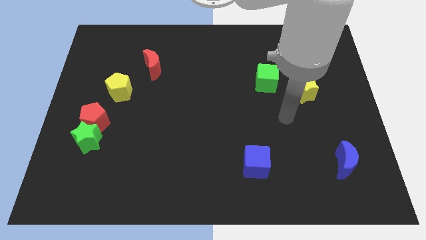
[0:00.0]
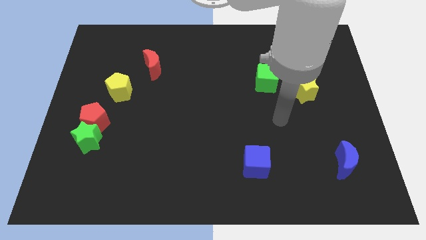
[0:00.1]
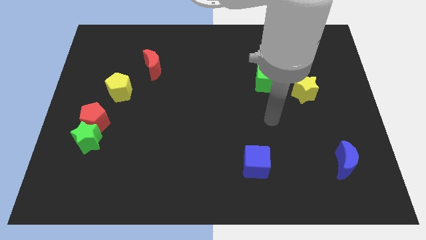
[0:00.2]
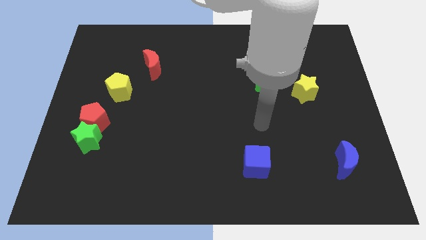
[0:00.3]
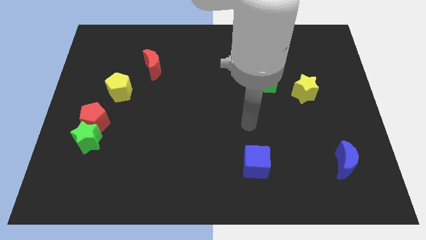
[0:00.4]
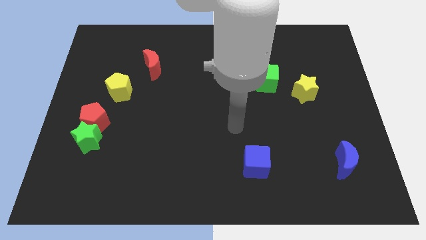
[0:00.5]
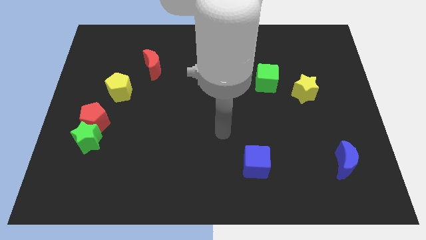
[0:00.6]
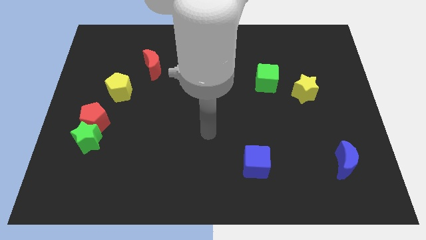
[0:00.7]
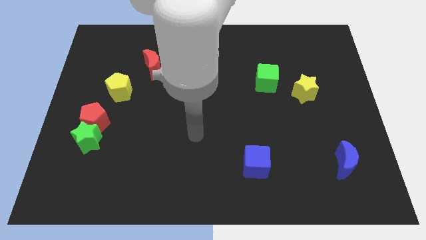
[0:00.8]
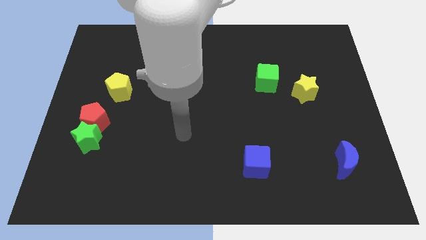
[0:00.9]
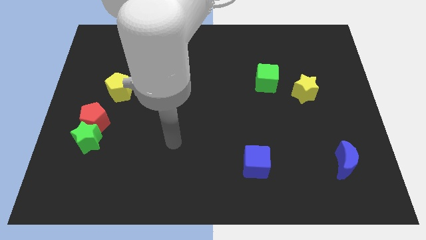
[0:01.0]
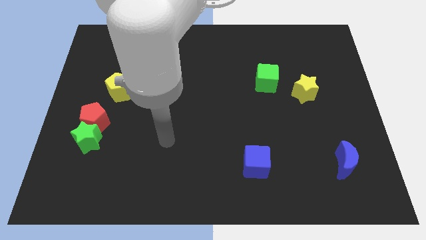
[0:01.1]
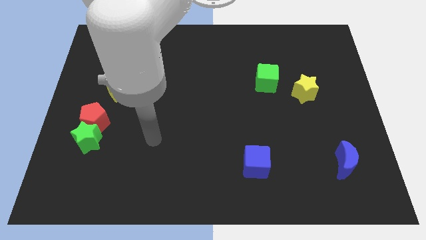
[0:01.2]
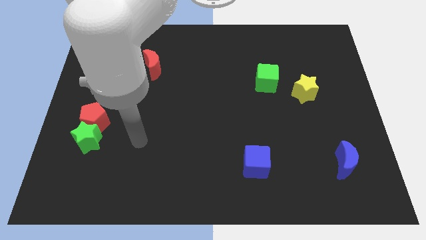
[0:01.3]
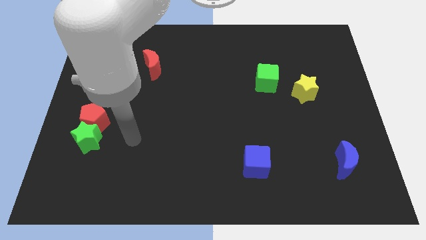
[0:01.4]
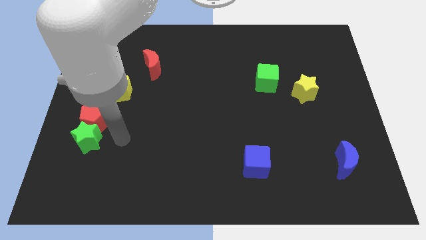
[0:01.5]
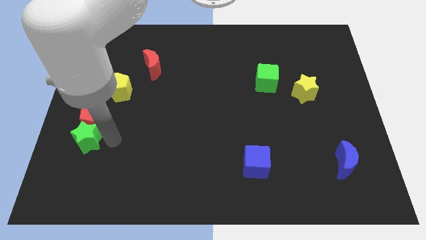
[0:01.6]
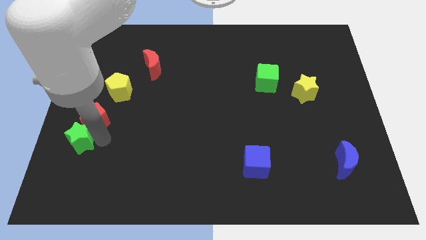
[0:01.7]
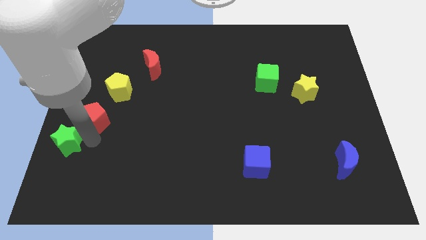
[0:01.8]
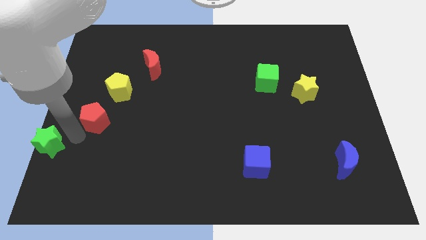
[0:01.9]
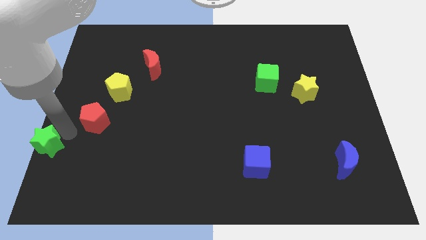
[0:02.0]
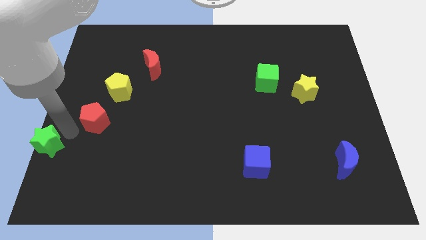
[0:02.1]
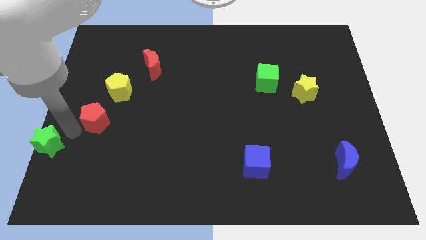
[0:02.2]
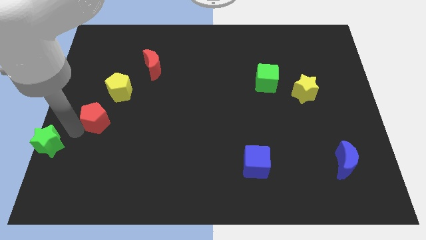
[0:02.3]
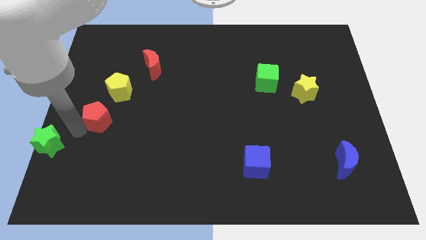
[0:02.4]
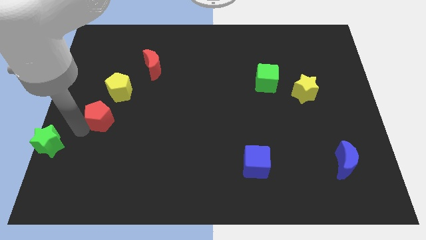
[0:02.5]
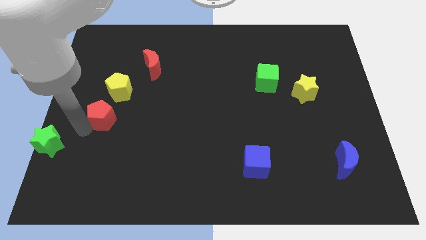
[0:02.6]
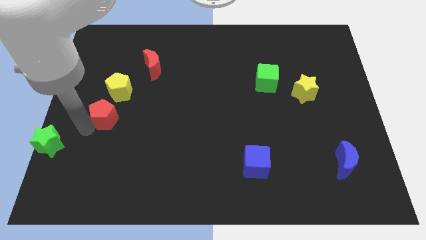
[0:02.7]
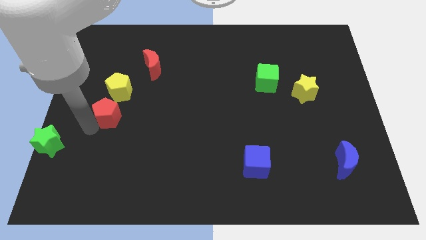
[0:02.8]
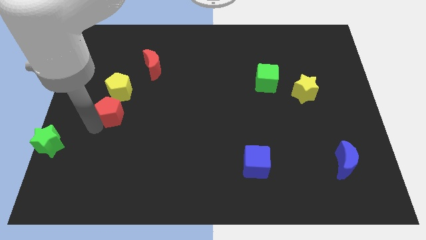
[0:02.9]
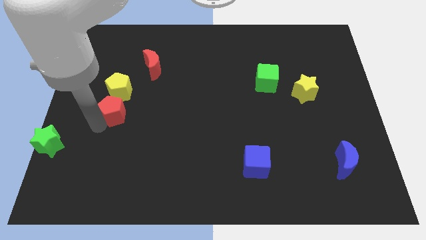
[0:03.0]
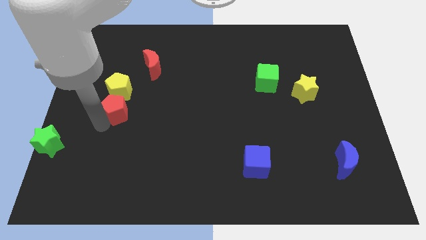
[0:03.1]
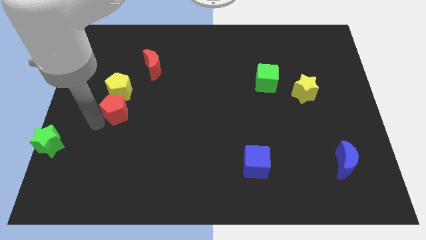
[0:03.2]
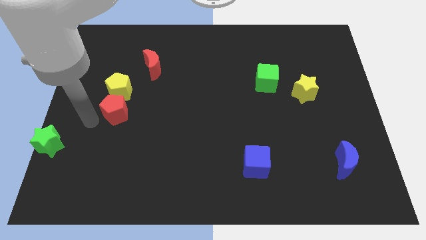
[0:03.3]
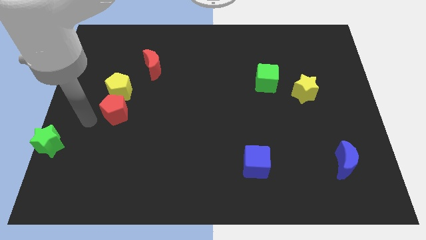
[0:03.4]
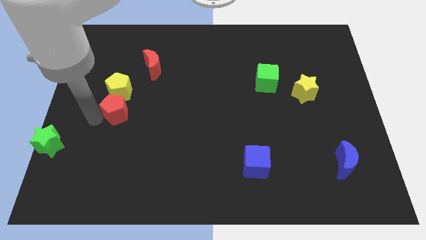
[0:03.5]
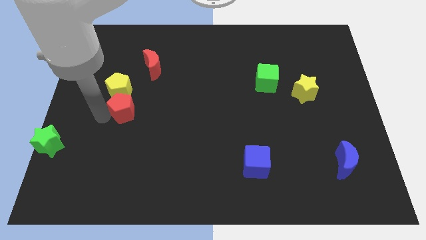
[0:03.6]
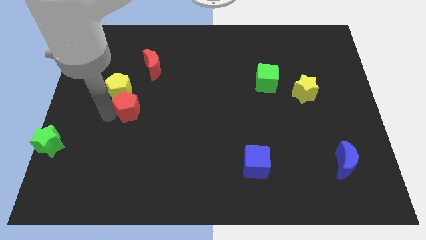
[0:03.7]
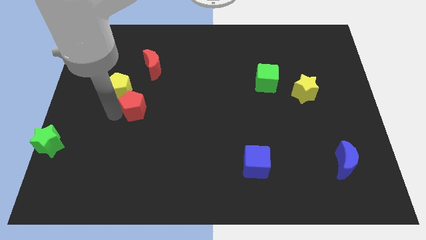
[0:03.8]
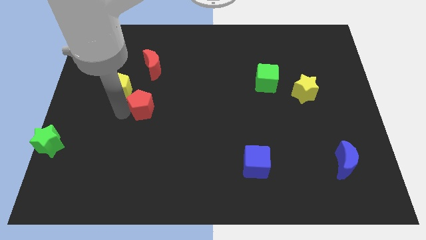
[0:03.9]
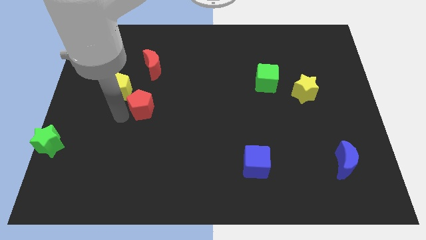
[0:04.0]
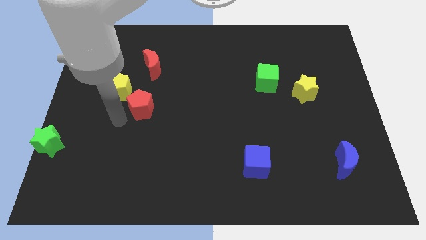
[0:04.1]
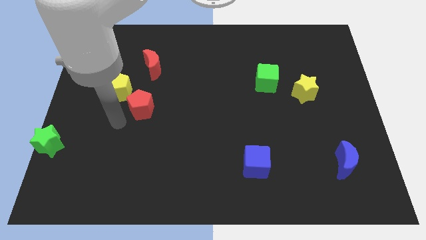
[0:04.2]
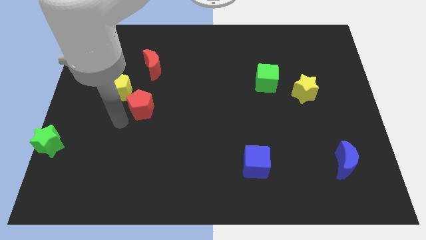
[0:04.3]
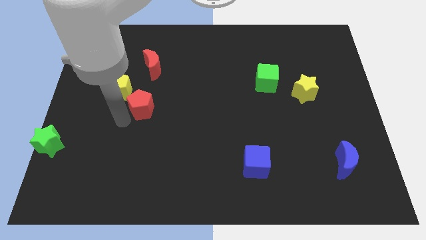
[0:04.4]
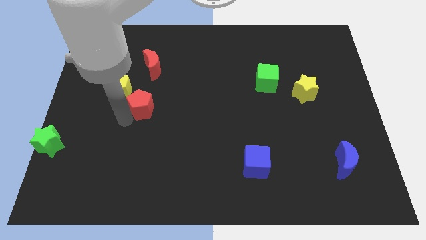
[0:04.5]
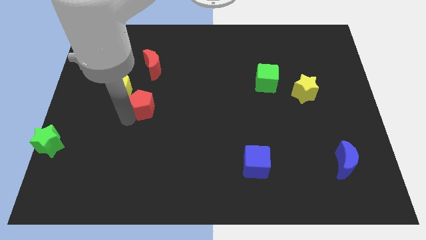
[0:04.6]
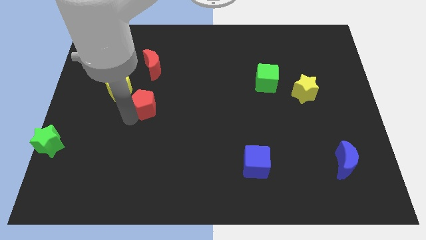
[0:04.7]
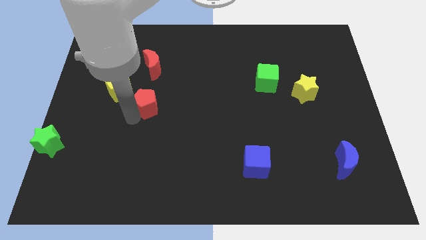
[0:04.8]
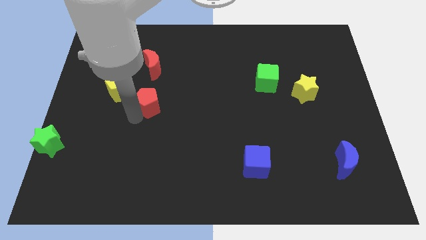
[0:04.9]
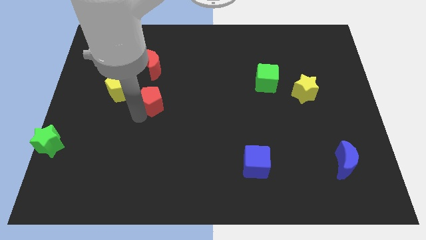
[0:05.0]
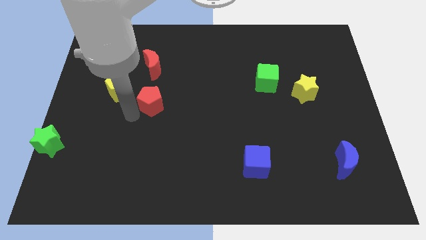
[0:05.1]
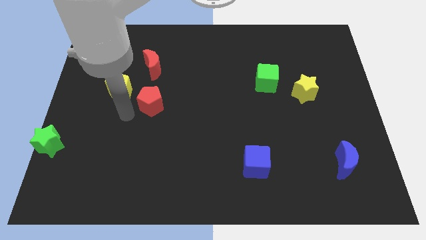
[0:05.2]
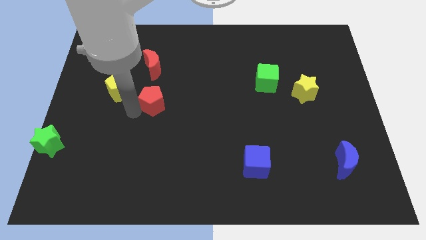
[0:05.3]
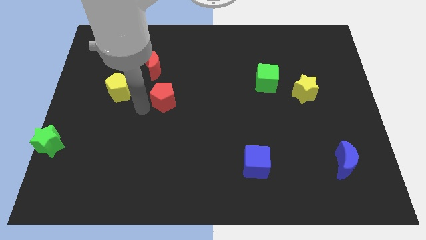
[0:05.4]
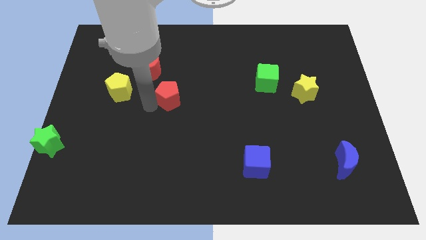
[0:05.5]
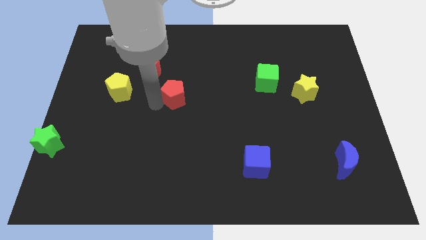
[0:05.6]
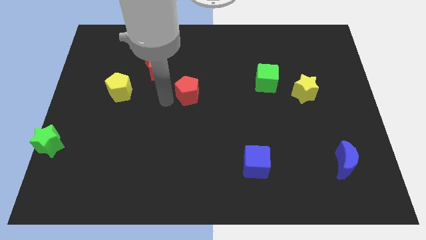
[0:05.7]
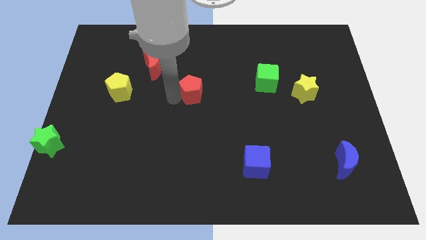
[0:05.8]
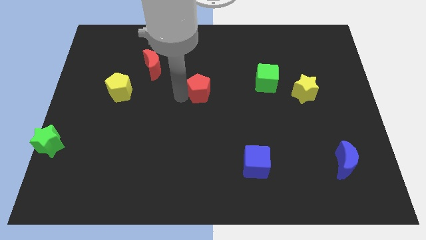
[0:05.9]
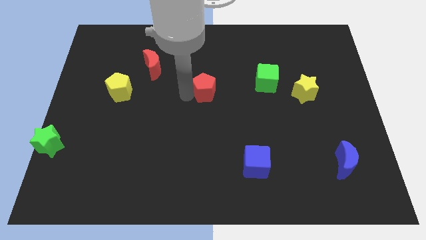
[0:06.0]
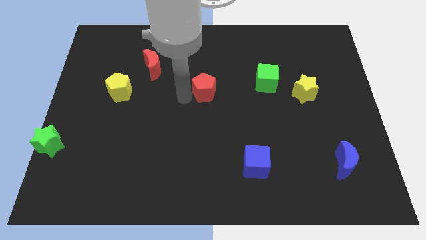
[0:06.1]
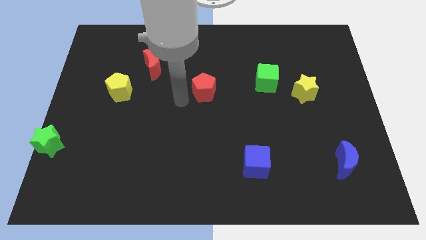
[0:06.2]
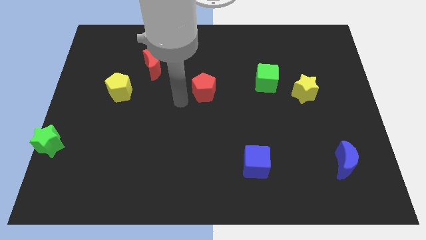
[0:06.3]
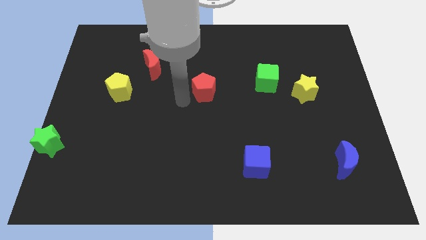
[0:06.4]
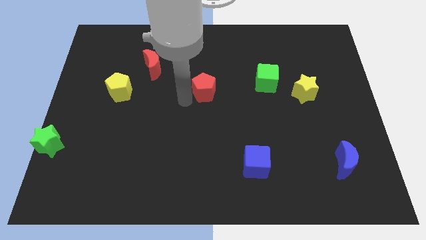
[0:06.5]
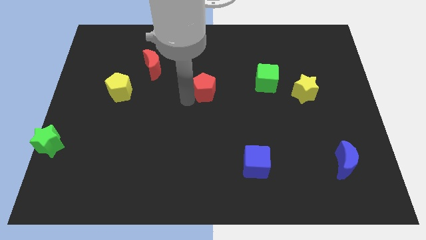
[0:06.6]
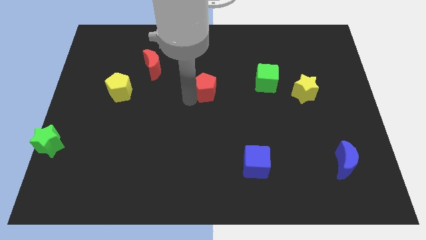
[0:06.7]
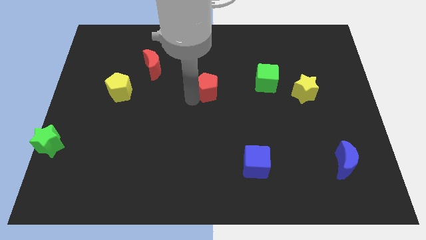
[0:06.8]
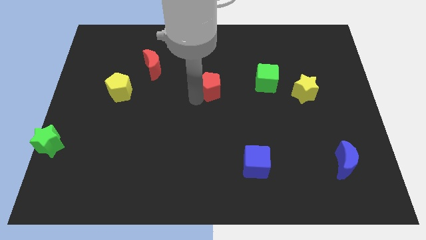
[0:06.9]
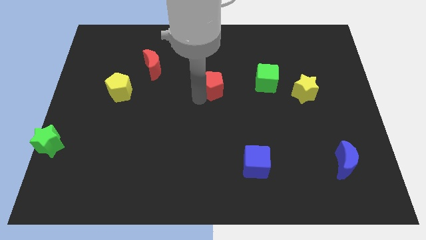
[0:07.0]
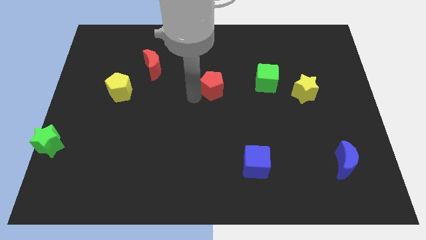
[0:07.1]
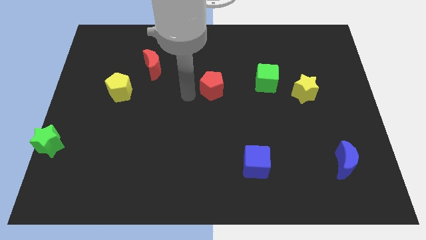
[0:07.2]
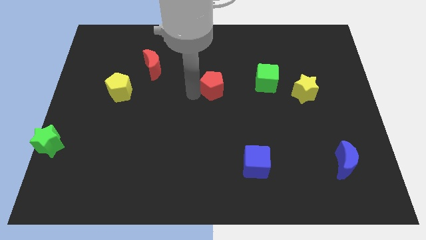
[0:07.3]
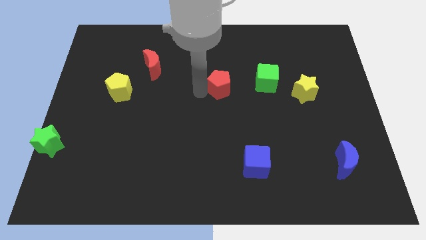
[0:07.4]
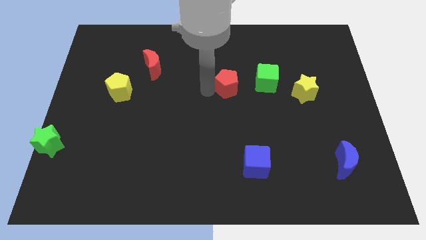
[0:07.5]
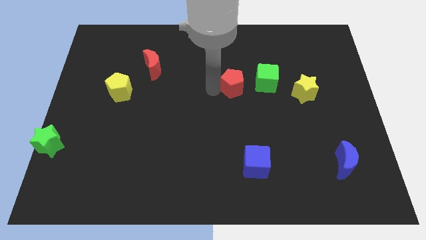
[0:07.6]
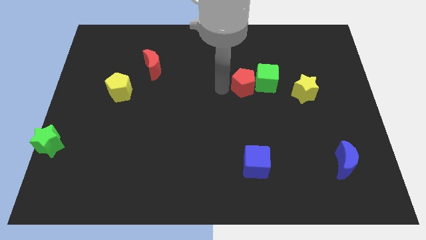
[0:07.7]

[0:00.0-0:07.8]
push the red pentagon next to the green cube
